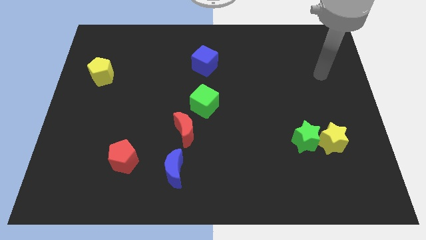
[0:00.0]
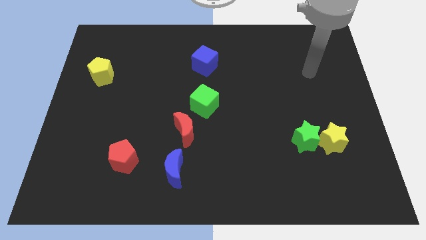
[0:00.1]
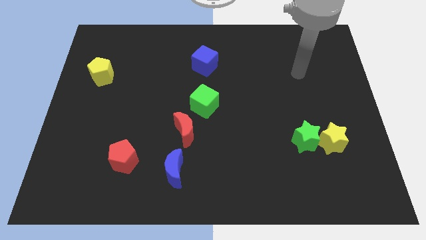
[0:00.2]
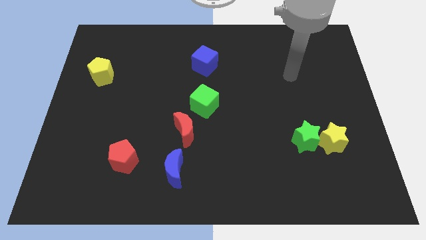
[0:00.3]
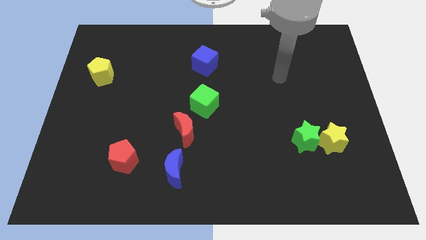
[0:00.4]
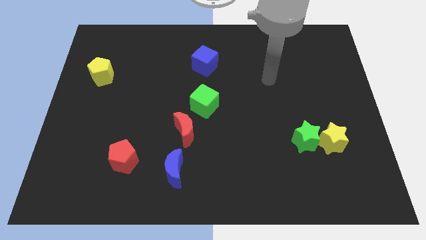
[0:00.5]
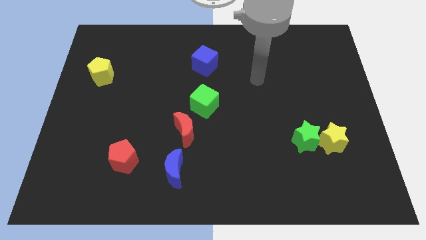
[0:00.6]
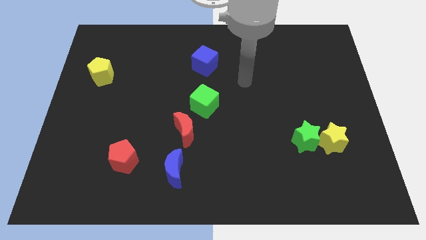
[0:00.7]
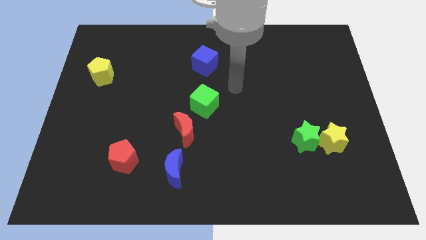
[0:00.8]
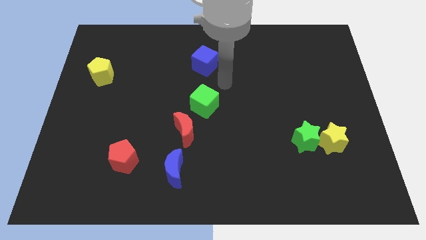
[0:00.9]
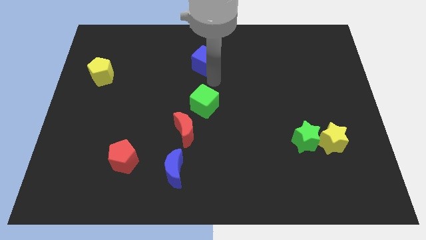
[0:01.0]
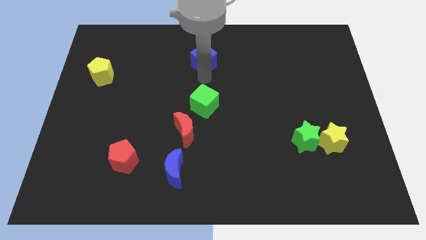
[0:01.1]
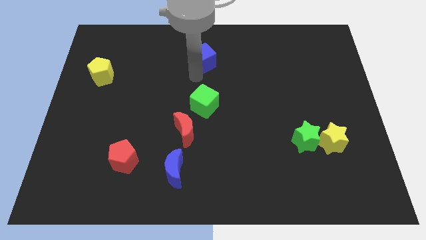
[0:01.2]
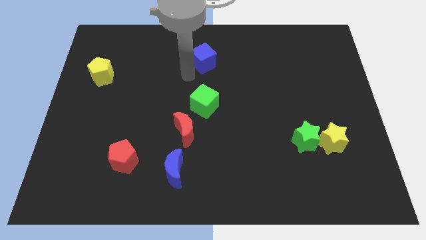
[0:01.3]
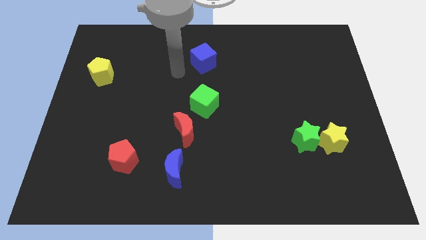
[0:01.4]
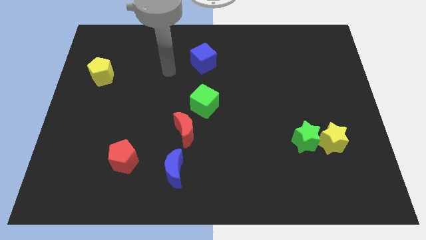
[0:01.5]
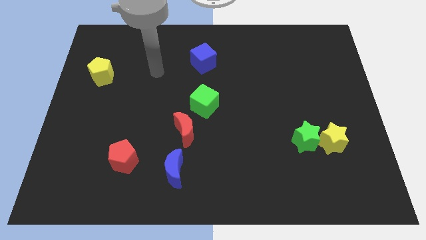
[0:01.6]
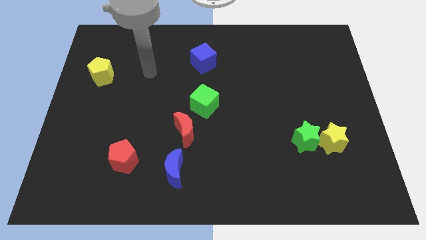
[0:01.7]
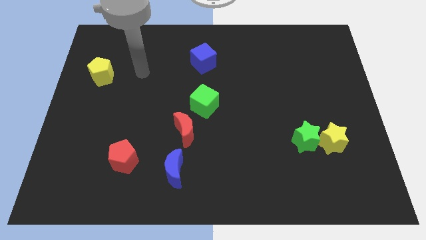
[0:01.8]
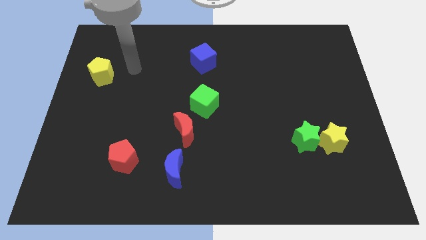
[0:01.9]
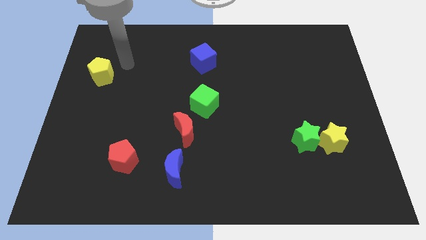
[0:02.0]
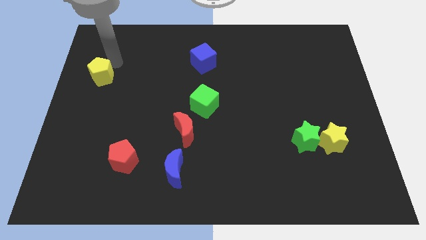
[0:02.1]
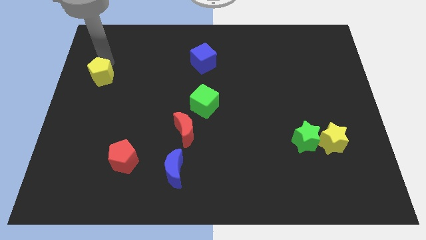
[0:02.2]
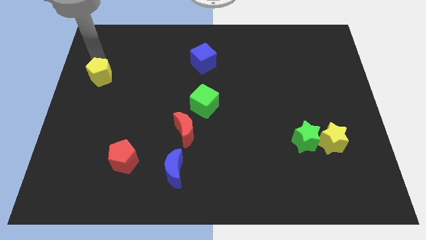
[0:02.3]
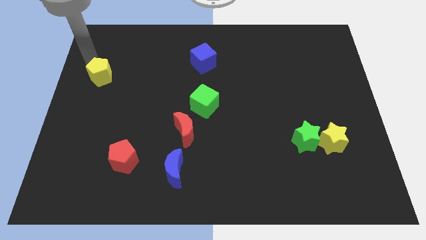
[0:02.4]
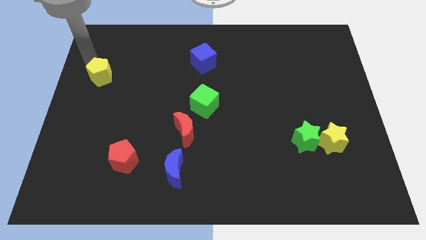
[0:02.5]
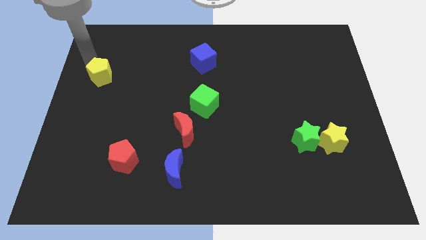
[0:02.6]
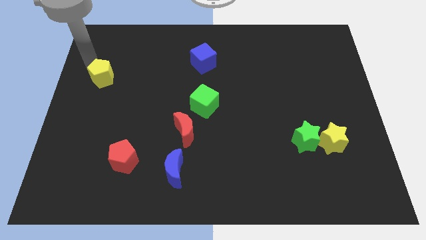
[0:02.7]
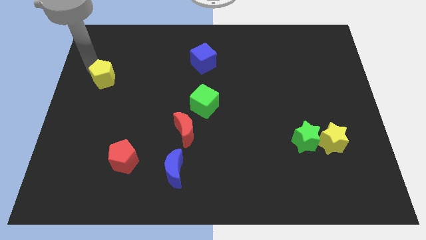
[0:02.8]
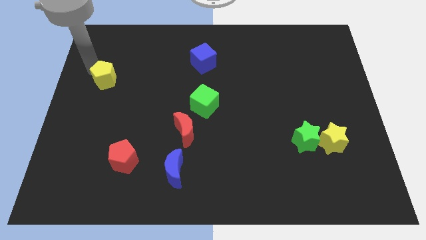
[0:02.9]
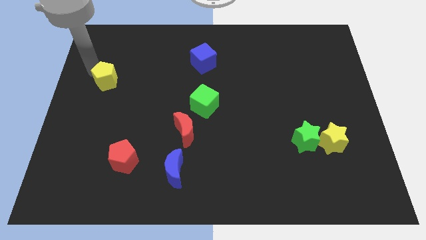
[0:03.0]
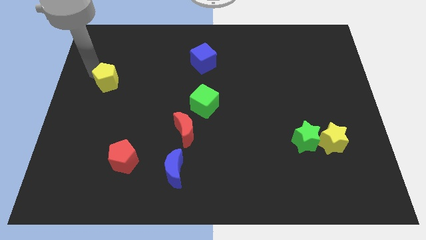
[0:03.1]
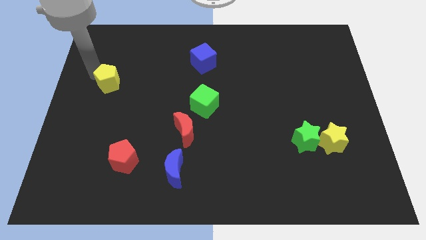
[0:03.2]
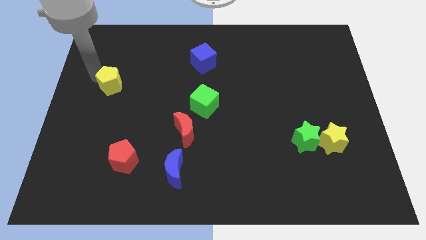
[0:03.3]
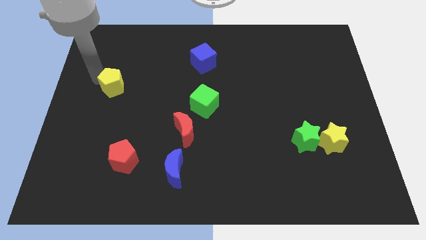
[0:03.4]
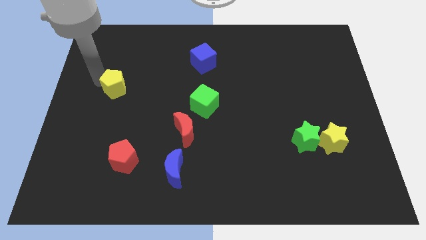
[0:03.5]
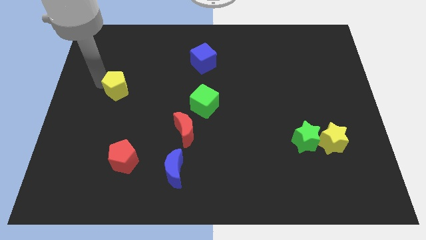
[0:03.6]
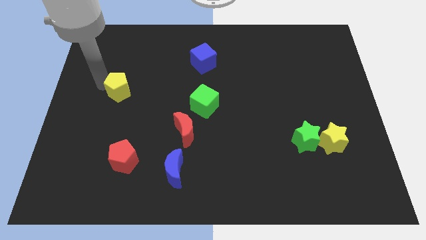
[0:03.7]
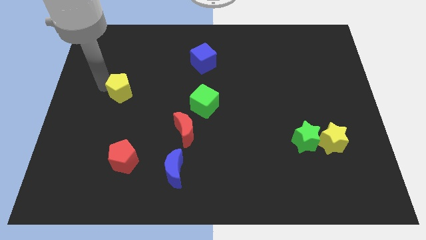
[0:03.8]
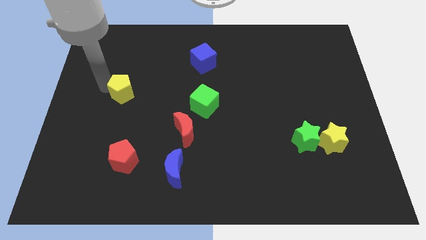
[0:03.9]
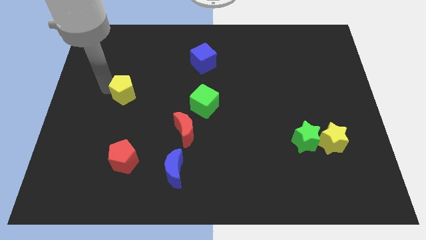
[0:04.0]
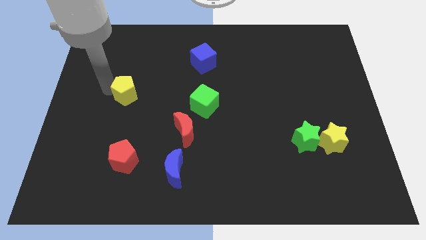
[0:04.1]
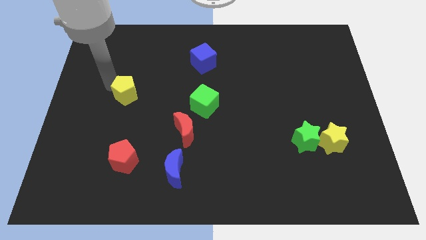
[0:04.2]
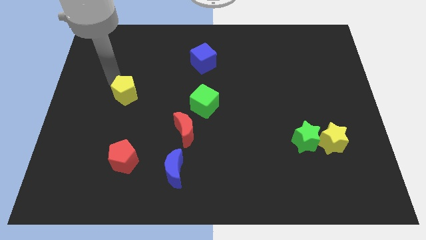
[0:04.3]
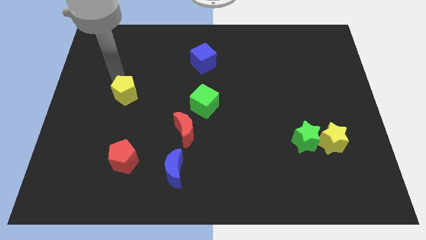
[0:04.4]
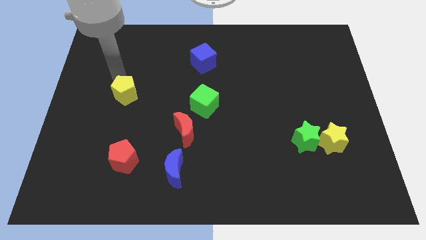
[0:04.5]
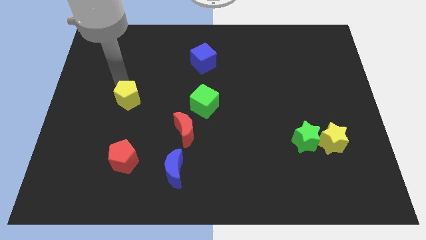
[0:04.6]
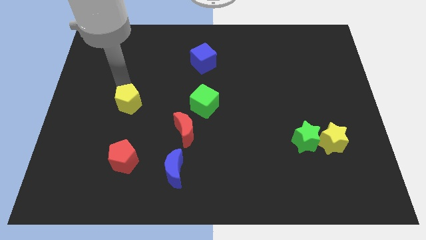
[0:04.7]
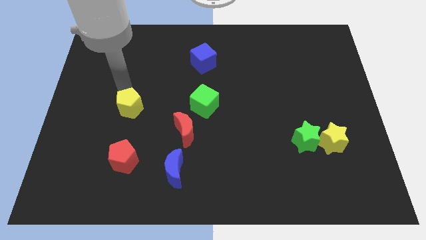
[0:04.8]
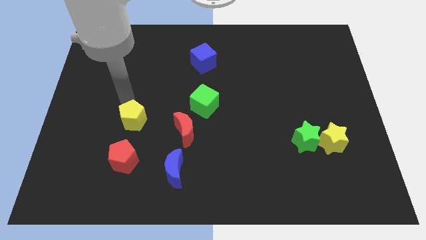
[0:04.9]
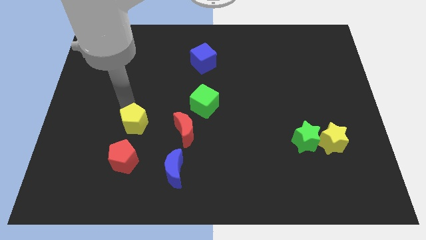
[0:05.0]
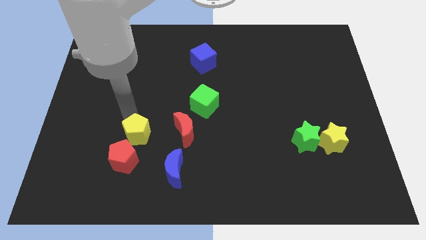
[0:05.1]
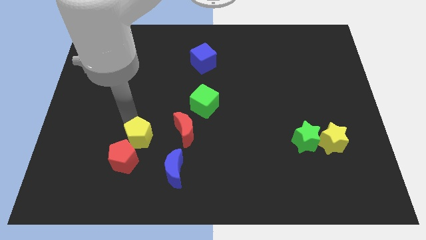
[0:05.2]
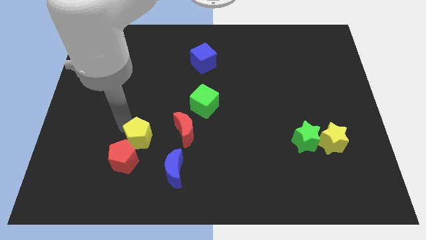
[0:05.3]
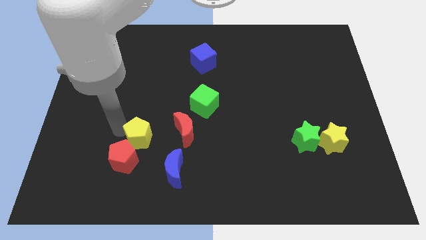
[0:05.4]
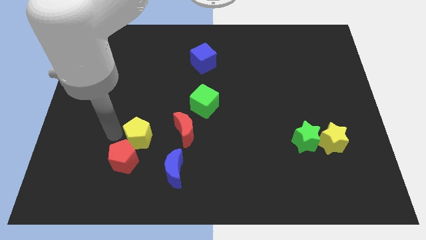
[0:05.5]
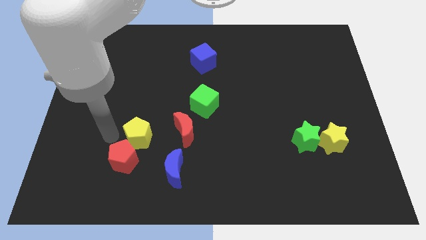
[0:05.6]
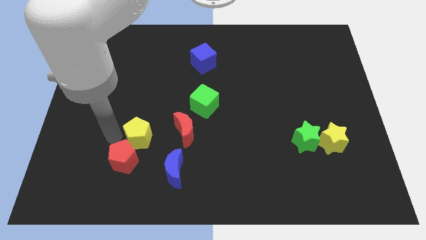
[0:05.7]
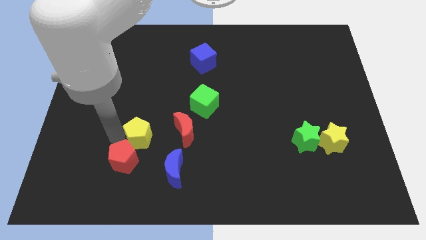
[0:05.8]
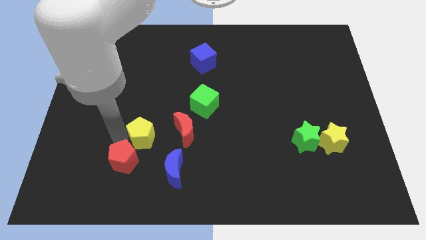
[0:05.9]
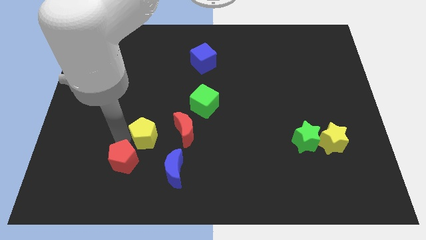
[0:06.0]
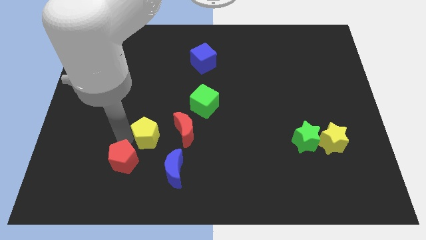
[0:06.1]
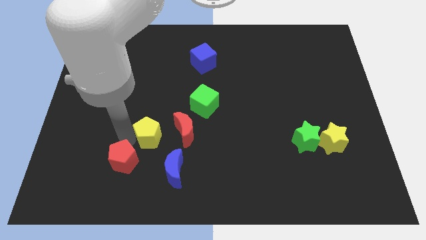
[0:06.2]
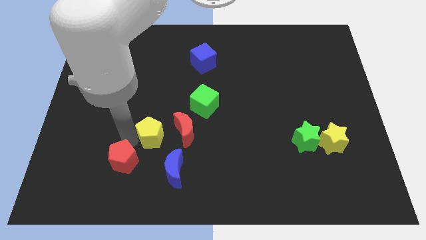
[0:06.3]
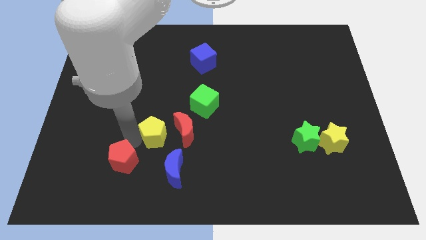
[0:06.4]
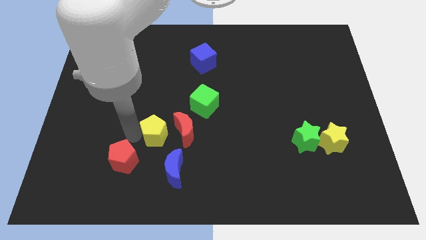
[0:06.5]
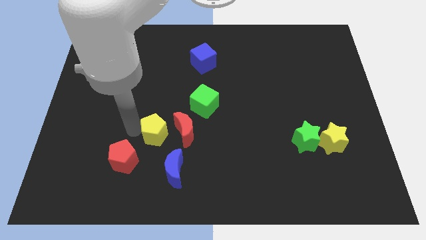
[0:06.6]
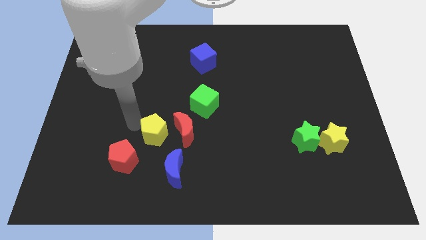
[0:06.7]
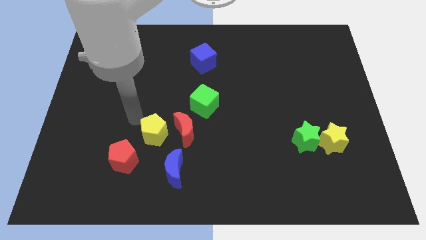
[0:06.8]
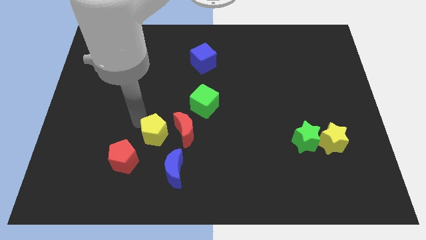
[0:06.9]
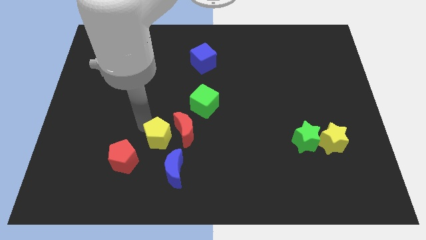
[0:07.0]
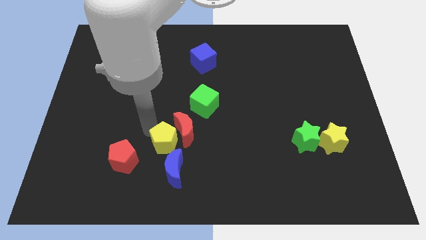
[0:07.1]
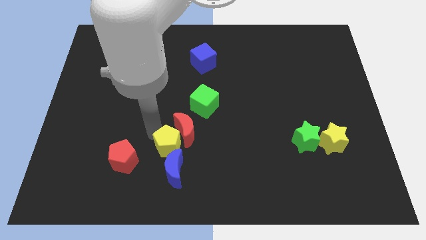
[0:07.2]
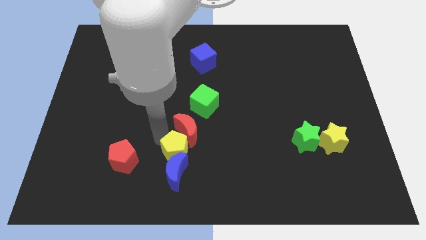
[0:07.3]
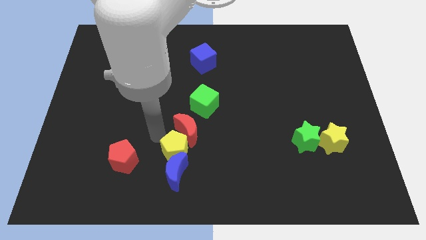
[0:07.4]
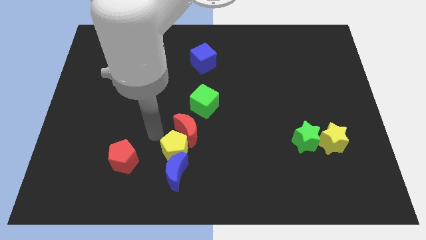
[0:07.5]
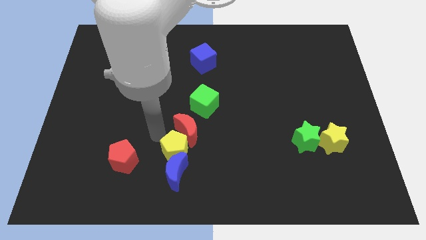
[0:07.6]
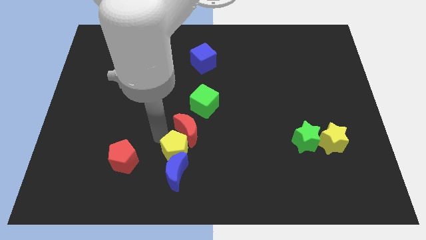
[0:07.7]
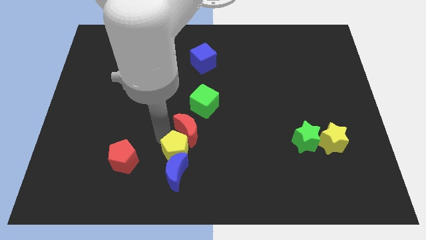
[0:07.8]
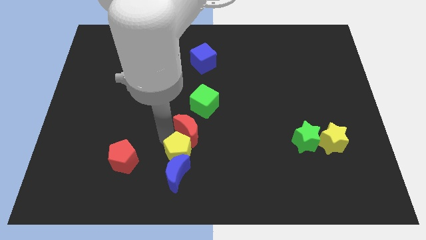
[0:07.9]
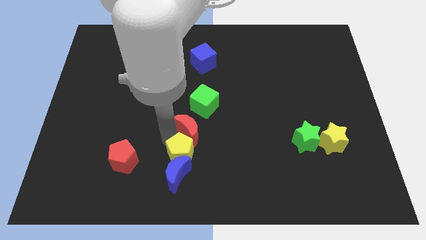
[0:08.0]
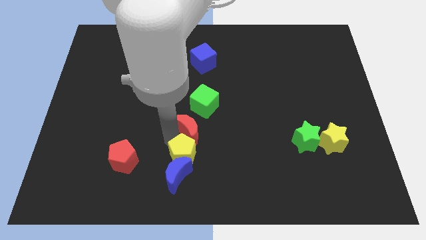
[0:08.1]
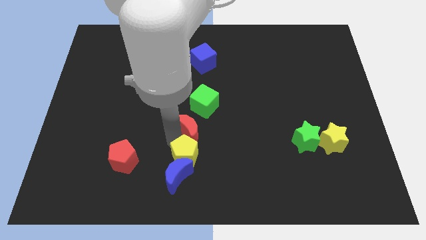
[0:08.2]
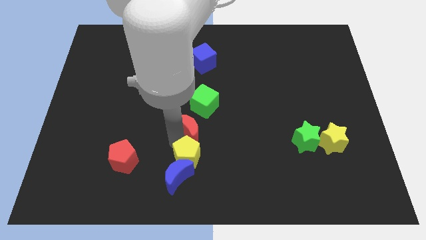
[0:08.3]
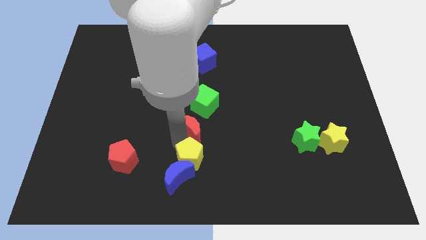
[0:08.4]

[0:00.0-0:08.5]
put the yellow pentagon to the bottom
